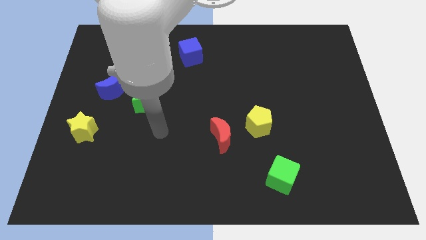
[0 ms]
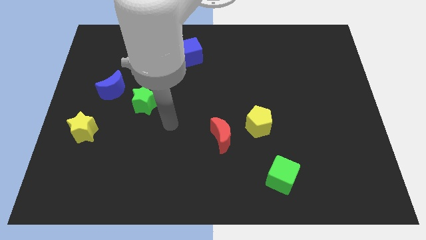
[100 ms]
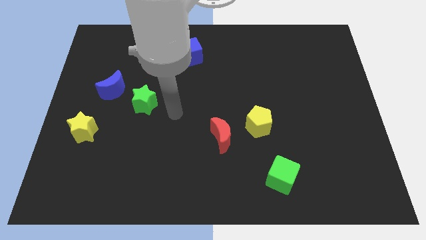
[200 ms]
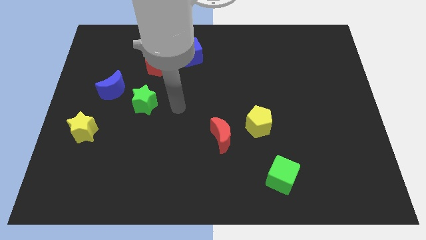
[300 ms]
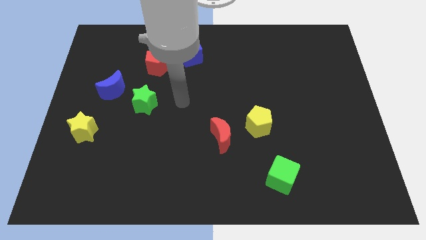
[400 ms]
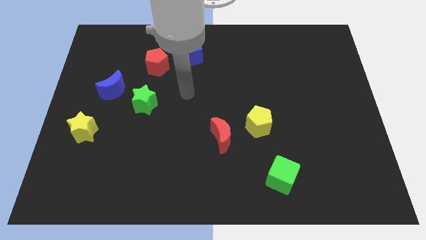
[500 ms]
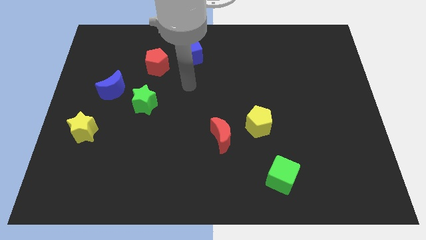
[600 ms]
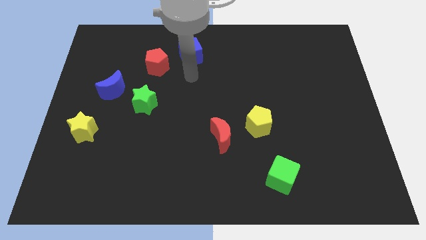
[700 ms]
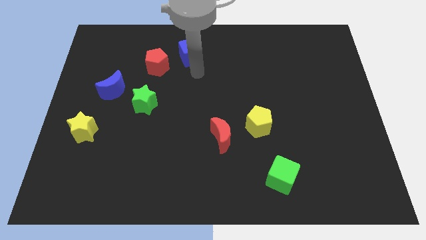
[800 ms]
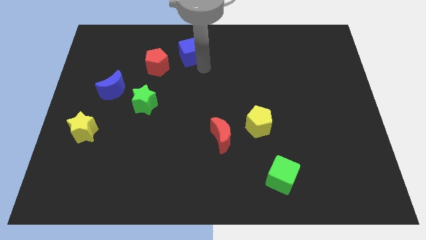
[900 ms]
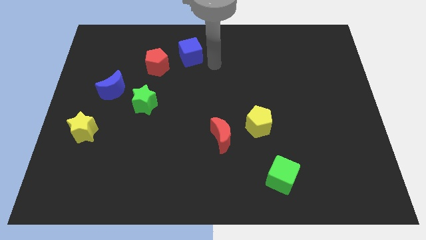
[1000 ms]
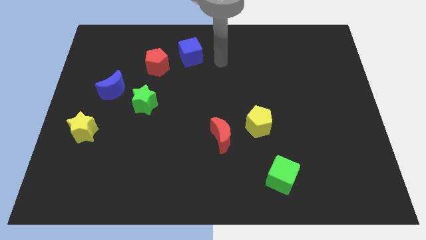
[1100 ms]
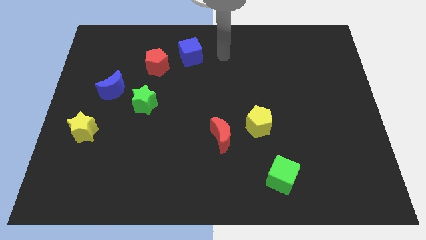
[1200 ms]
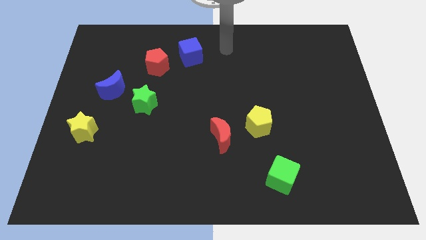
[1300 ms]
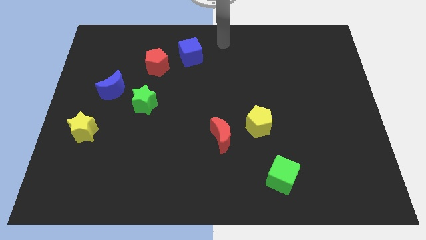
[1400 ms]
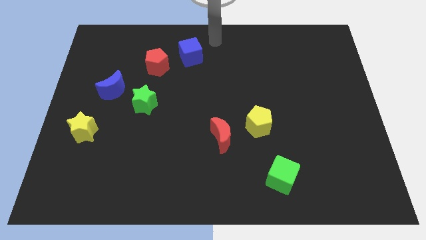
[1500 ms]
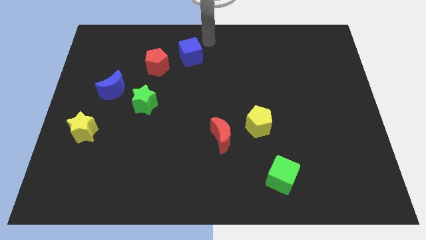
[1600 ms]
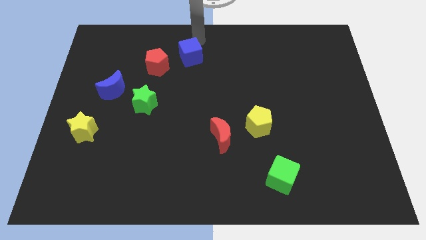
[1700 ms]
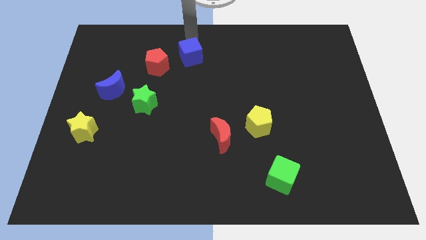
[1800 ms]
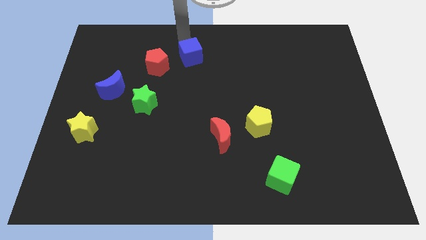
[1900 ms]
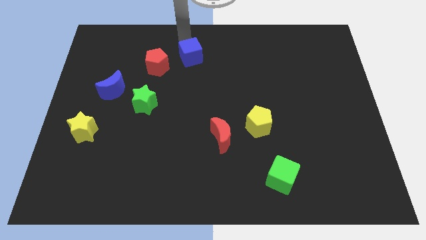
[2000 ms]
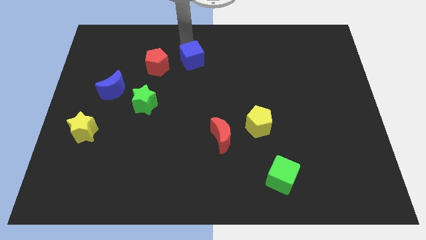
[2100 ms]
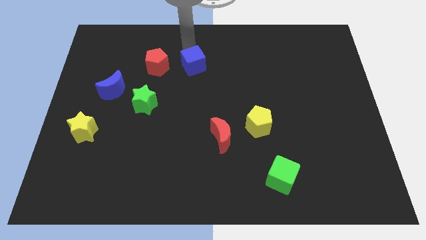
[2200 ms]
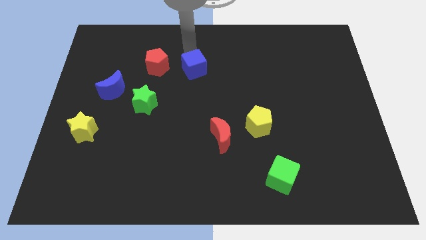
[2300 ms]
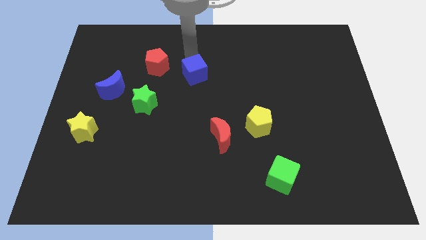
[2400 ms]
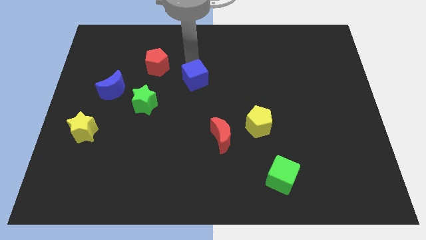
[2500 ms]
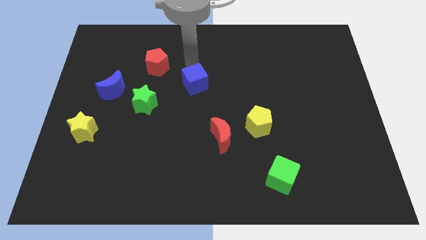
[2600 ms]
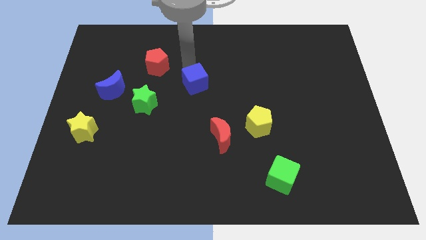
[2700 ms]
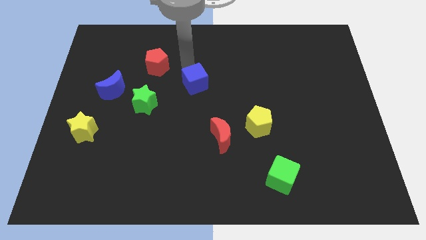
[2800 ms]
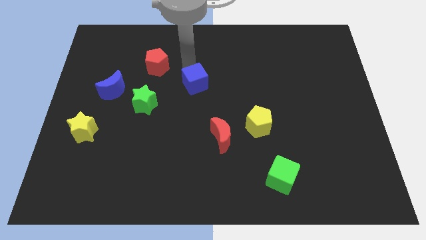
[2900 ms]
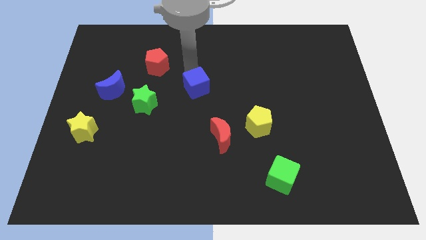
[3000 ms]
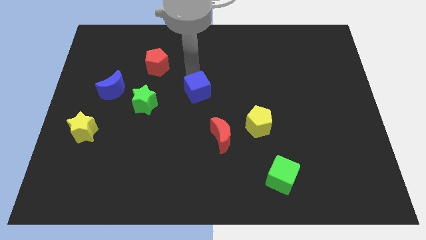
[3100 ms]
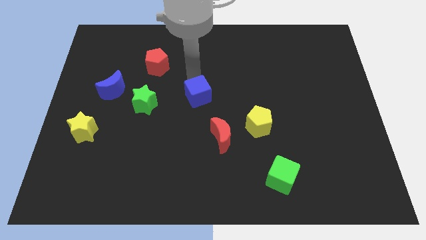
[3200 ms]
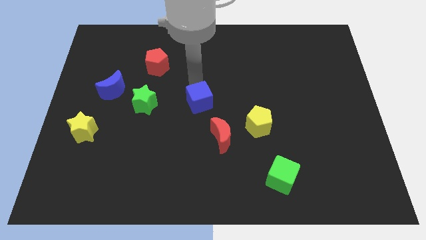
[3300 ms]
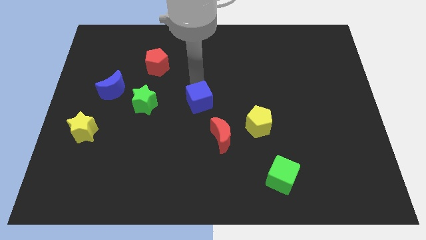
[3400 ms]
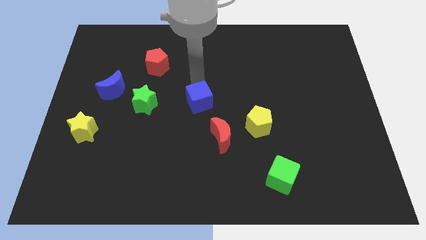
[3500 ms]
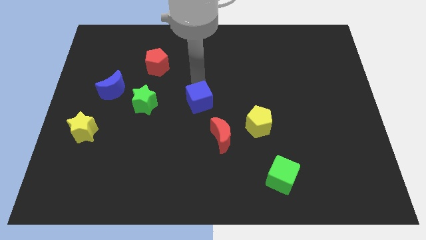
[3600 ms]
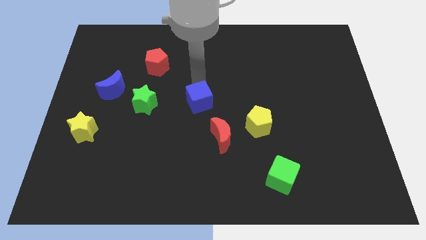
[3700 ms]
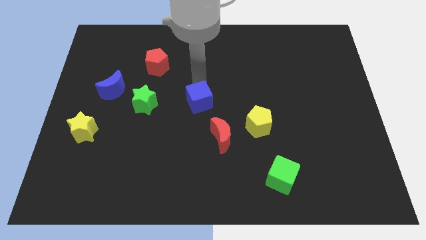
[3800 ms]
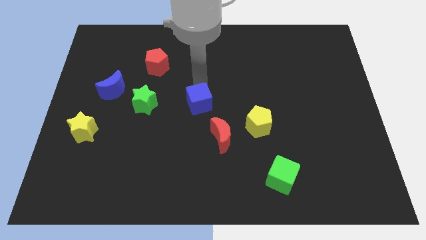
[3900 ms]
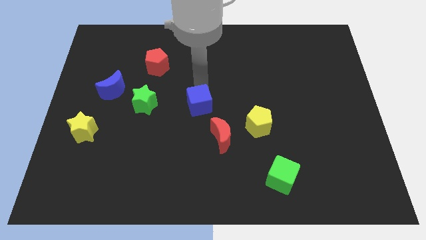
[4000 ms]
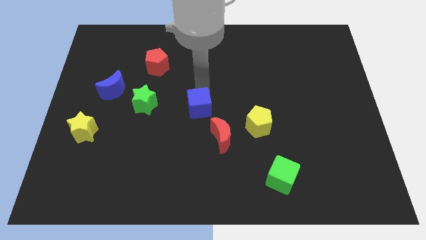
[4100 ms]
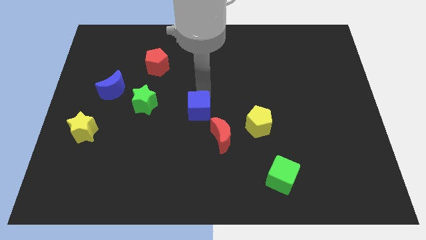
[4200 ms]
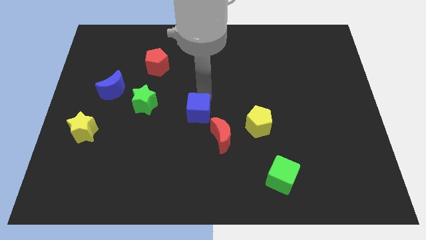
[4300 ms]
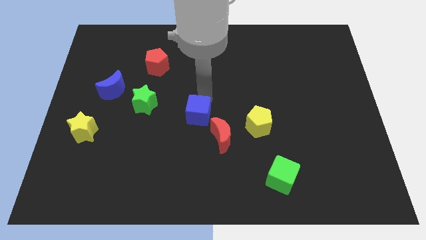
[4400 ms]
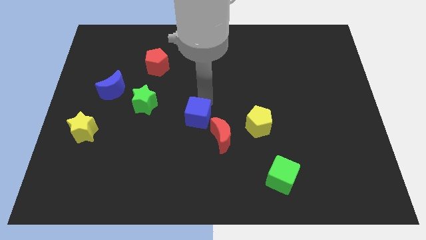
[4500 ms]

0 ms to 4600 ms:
slide the blue cube downwards

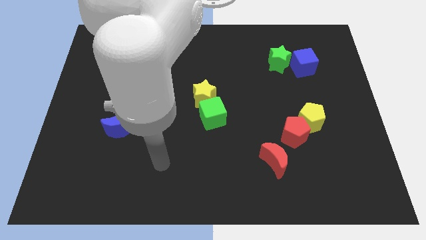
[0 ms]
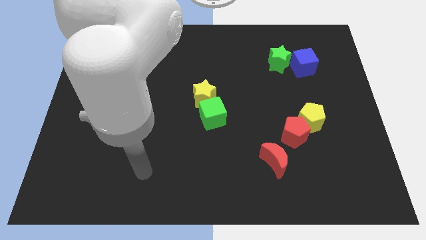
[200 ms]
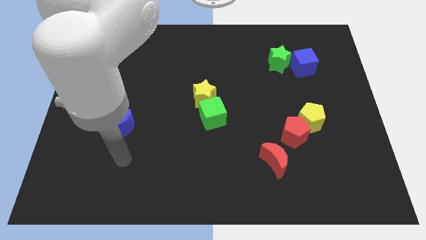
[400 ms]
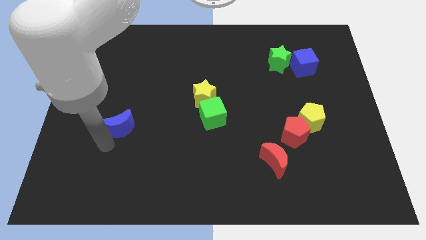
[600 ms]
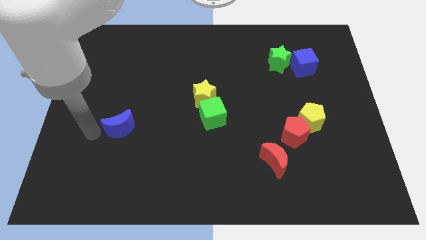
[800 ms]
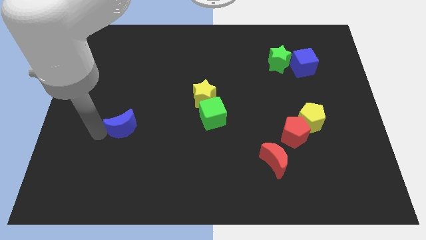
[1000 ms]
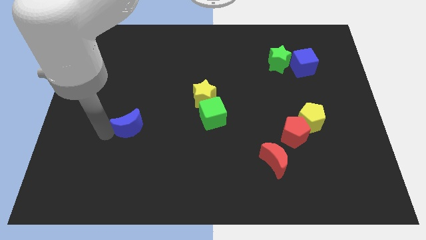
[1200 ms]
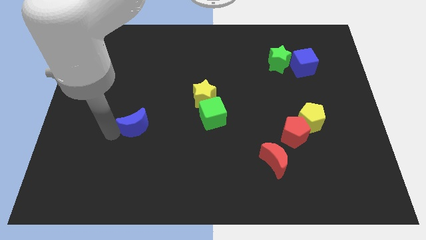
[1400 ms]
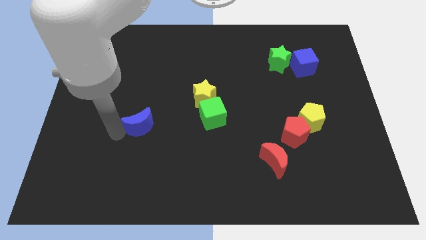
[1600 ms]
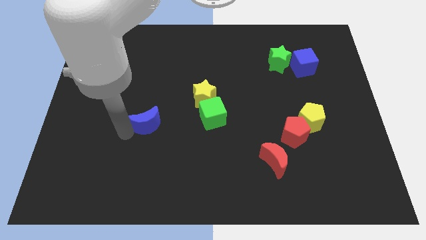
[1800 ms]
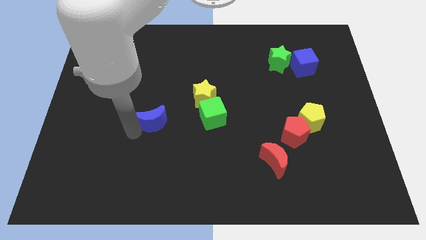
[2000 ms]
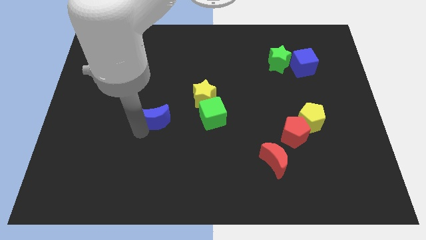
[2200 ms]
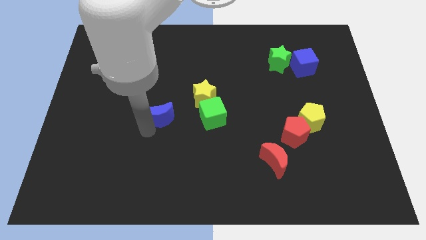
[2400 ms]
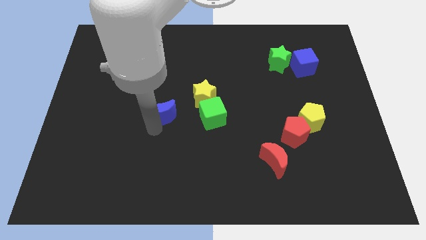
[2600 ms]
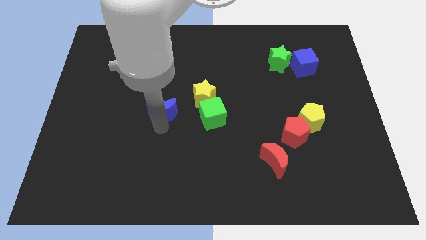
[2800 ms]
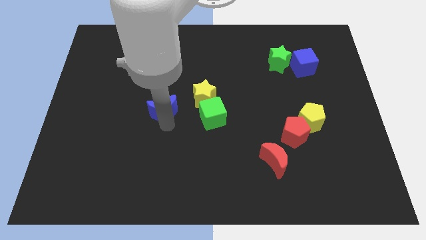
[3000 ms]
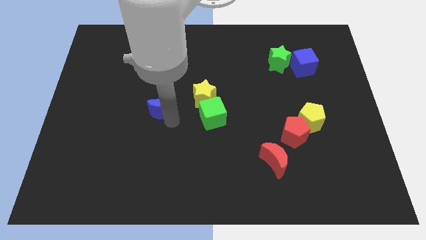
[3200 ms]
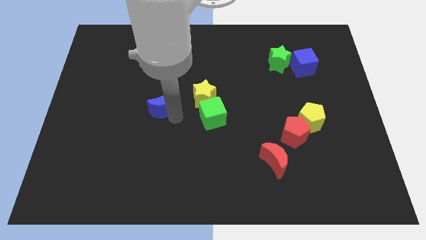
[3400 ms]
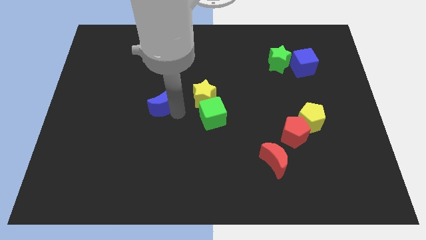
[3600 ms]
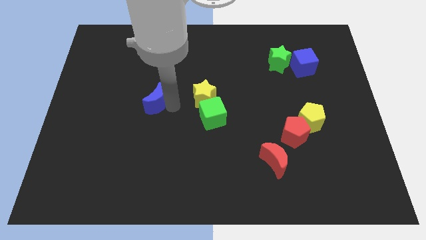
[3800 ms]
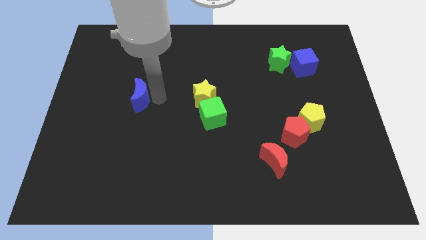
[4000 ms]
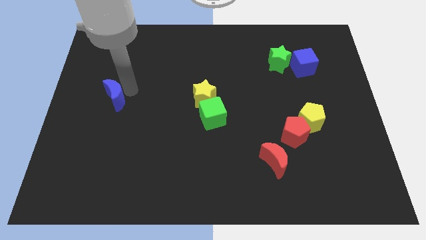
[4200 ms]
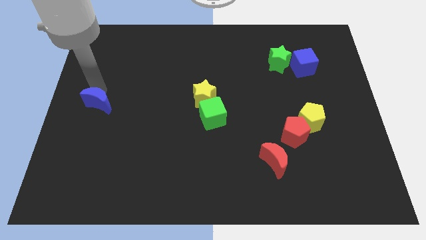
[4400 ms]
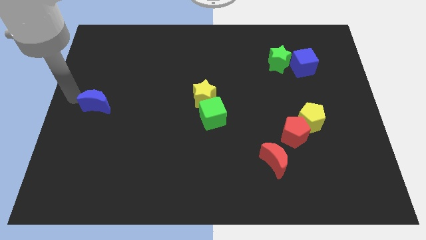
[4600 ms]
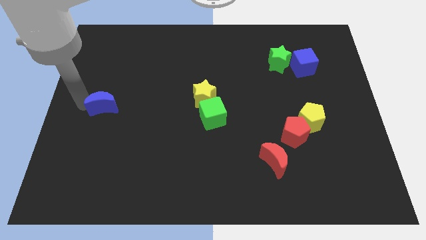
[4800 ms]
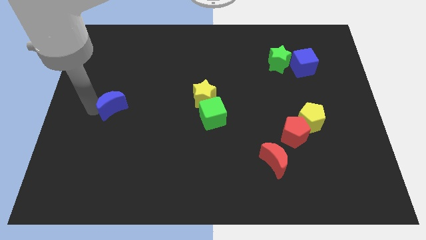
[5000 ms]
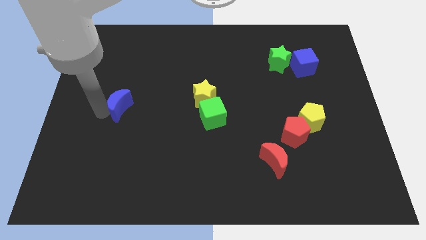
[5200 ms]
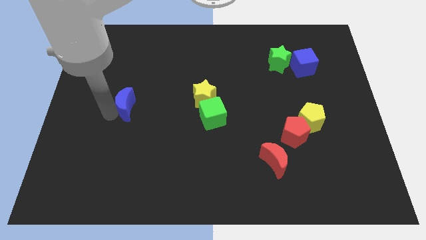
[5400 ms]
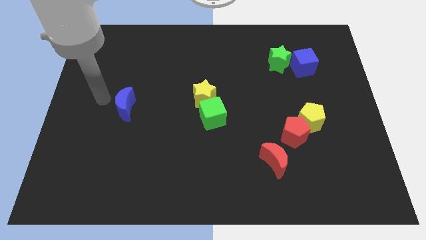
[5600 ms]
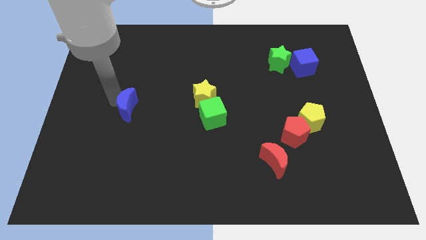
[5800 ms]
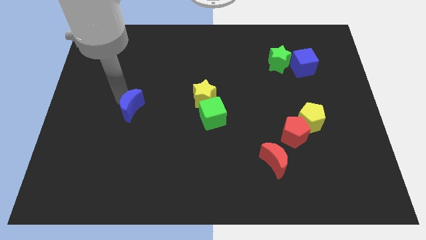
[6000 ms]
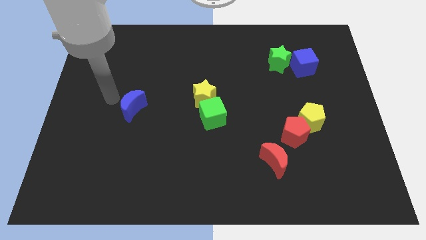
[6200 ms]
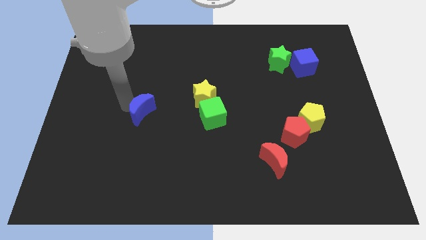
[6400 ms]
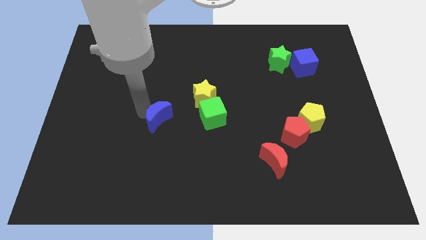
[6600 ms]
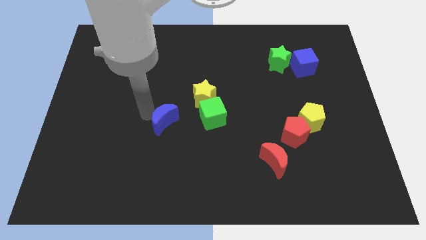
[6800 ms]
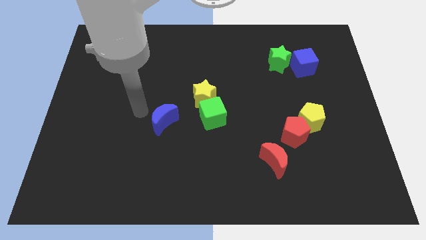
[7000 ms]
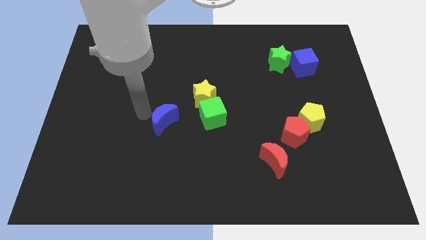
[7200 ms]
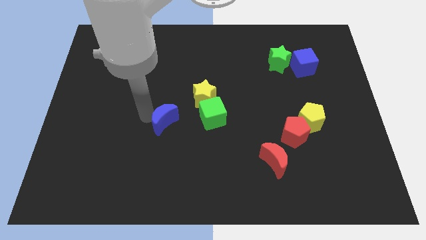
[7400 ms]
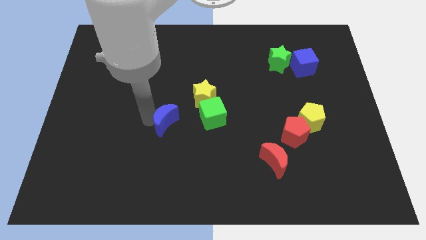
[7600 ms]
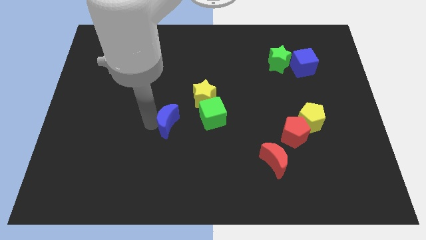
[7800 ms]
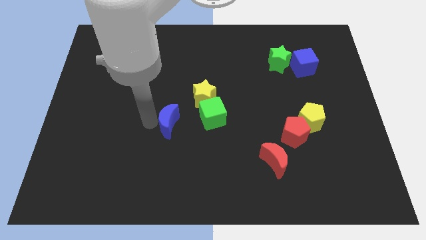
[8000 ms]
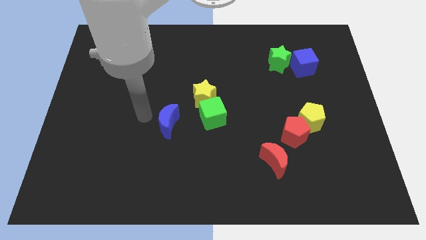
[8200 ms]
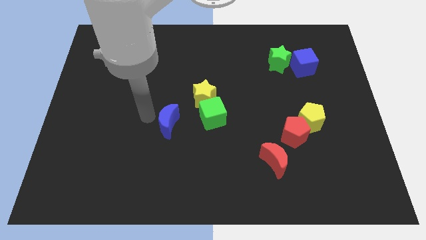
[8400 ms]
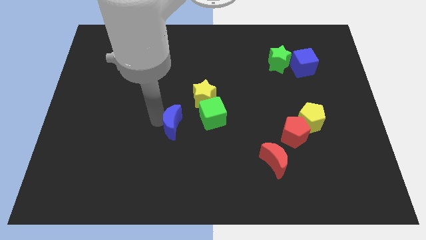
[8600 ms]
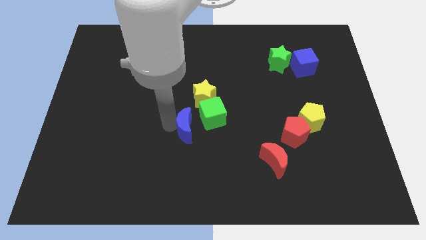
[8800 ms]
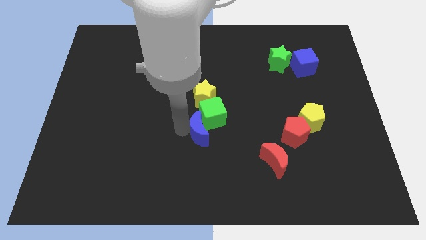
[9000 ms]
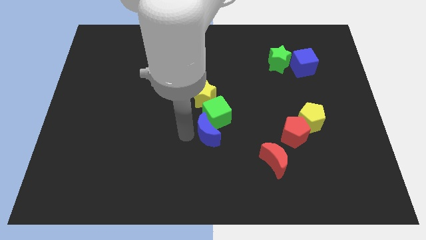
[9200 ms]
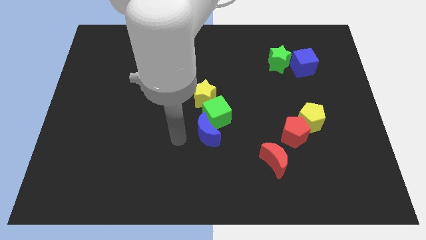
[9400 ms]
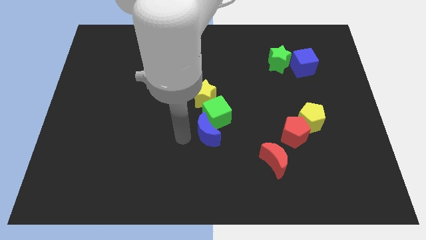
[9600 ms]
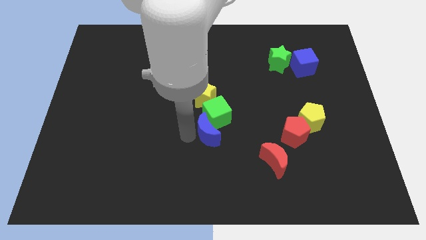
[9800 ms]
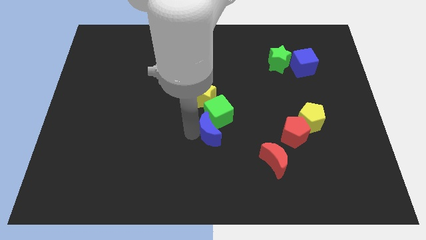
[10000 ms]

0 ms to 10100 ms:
move the blue moon to the right
